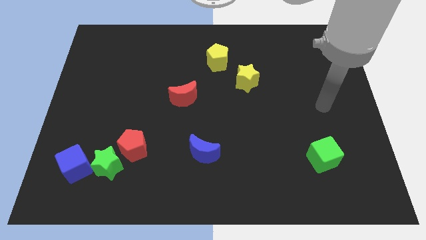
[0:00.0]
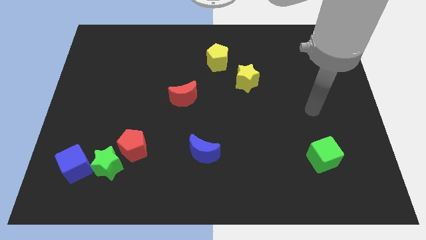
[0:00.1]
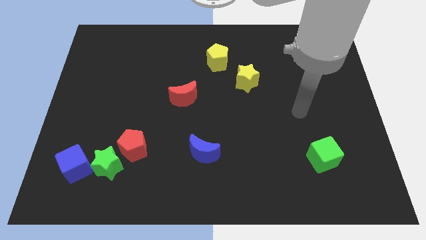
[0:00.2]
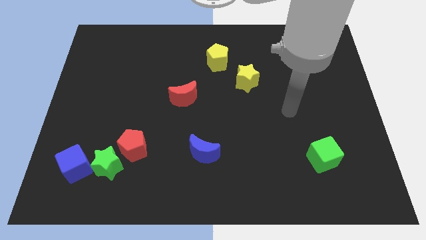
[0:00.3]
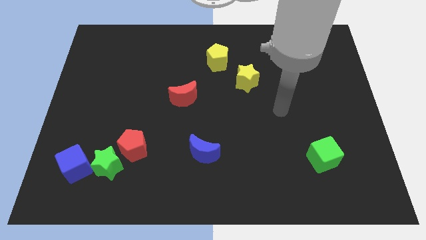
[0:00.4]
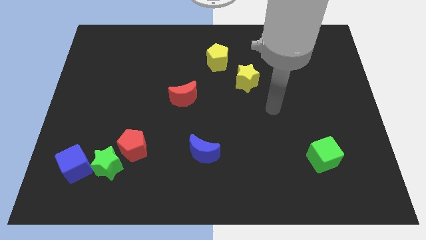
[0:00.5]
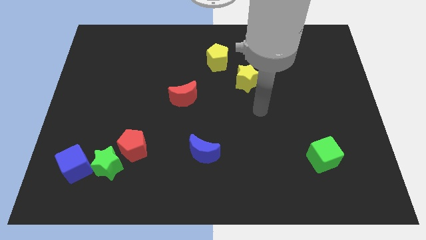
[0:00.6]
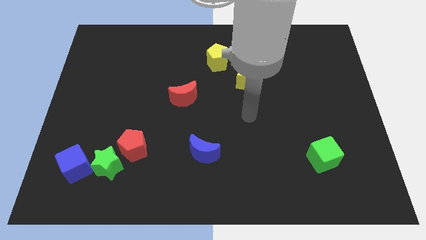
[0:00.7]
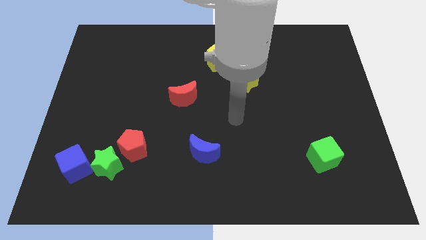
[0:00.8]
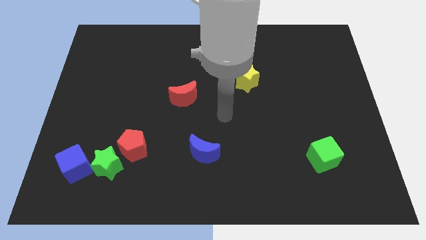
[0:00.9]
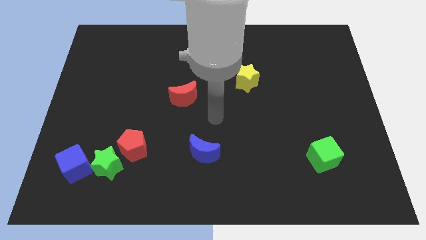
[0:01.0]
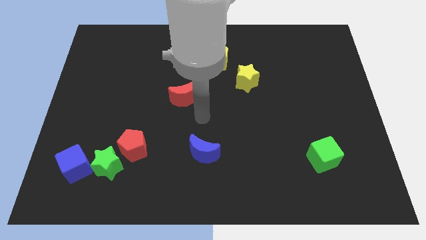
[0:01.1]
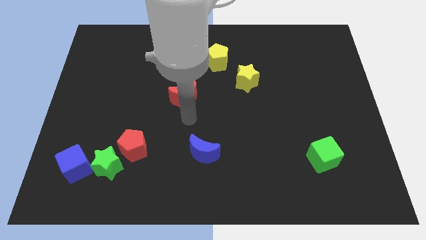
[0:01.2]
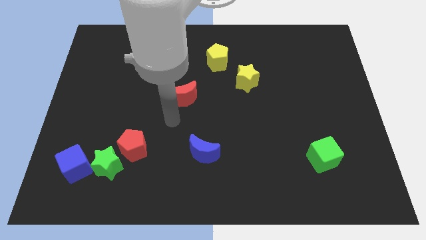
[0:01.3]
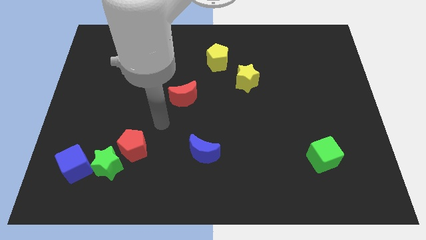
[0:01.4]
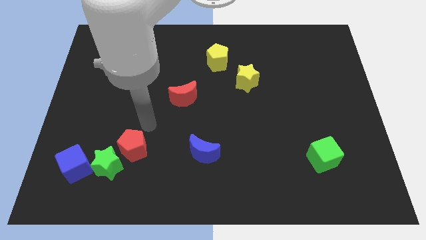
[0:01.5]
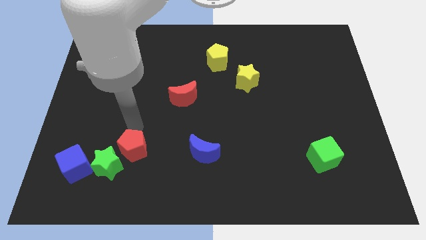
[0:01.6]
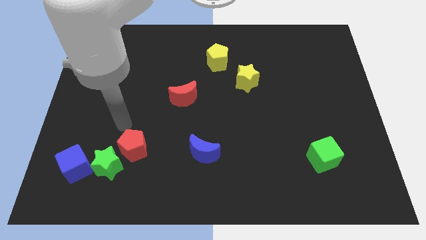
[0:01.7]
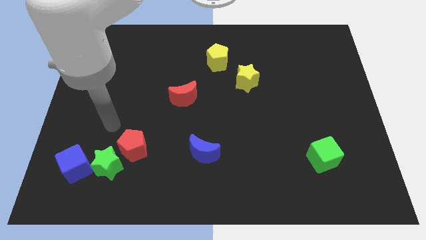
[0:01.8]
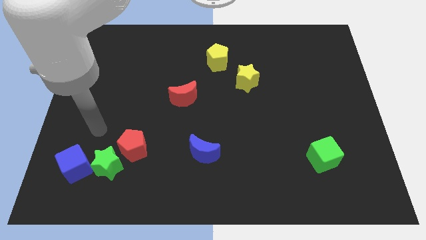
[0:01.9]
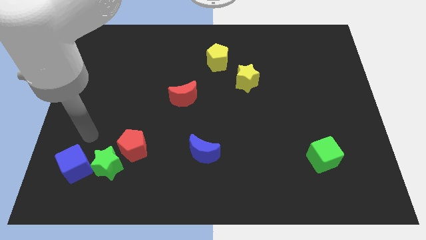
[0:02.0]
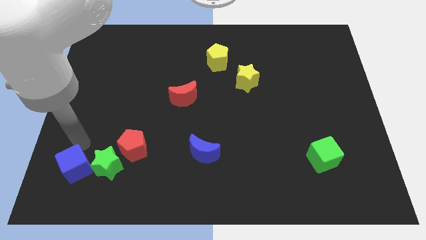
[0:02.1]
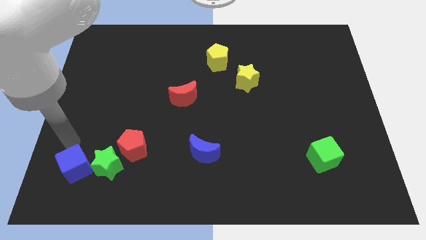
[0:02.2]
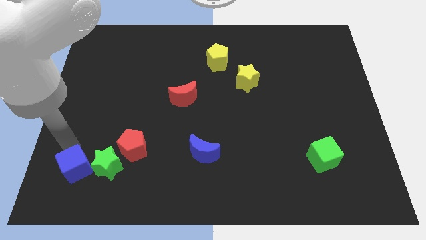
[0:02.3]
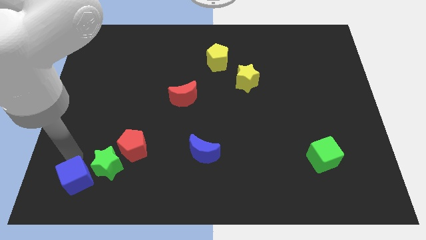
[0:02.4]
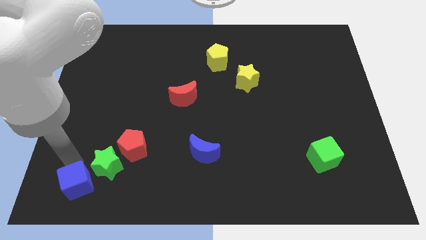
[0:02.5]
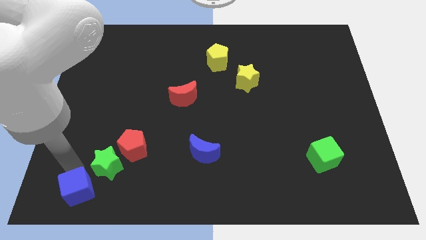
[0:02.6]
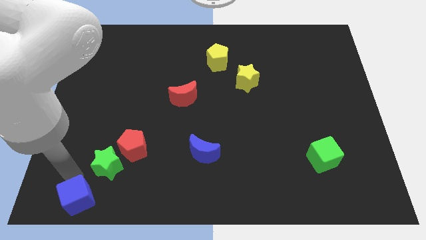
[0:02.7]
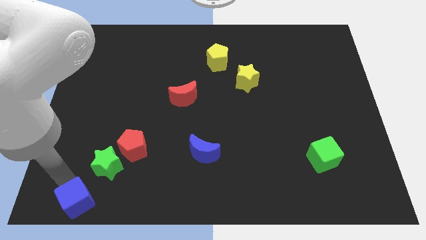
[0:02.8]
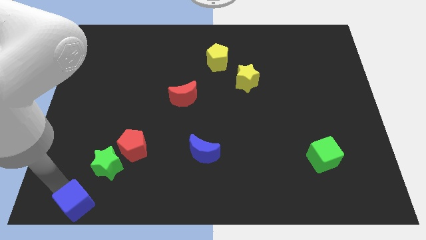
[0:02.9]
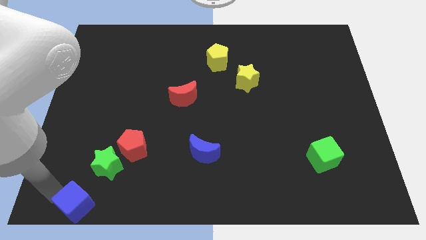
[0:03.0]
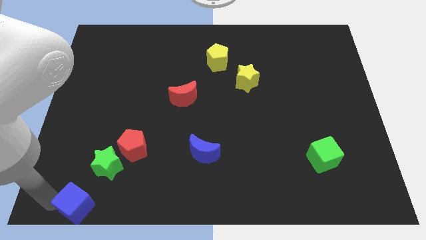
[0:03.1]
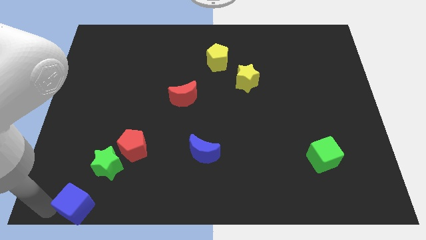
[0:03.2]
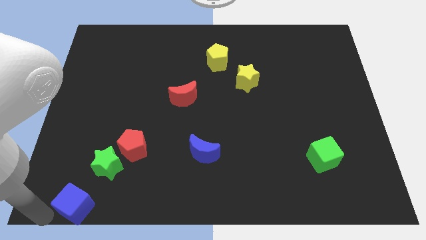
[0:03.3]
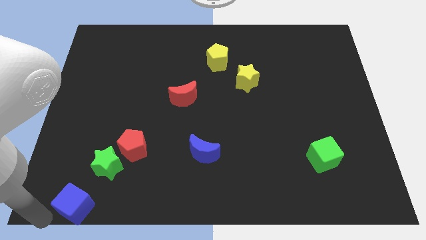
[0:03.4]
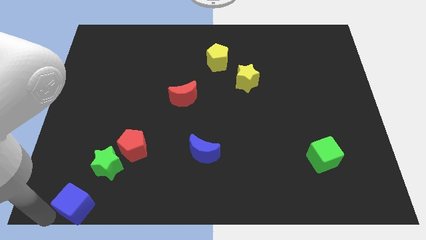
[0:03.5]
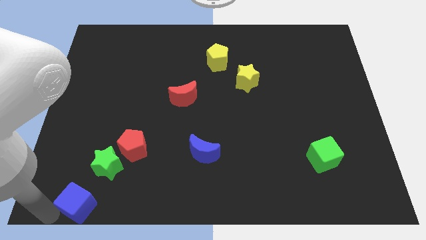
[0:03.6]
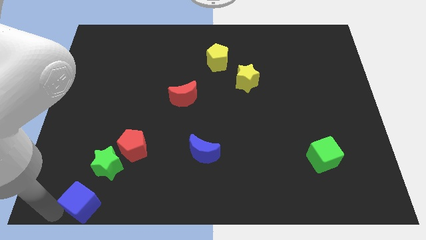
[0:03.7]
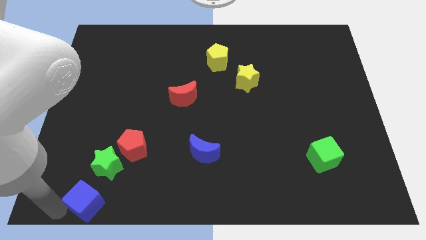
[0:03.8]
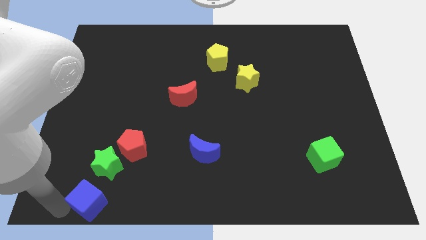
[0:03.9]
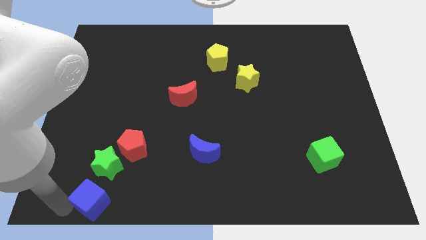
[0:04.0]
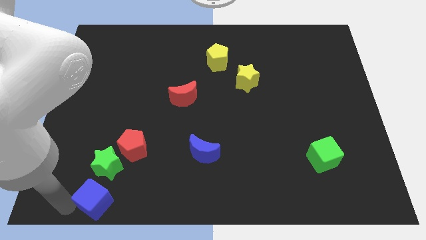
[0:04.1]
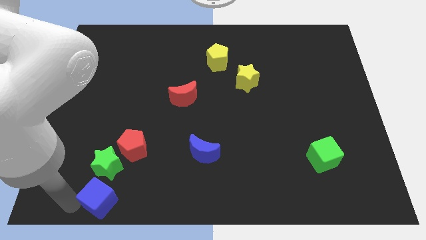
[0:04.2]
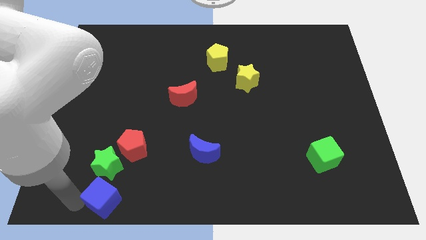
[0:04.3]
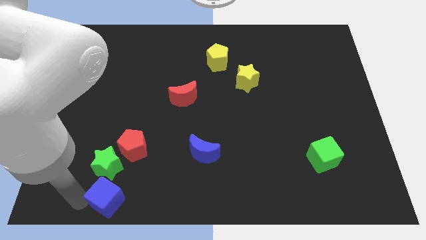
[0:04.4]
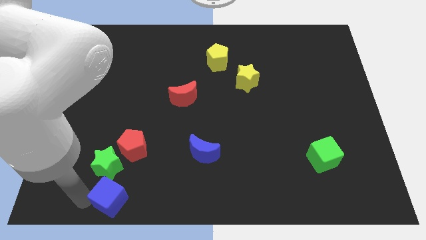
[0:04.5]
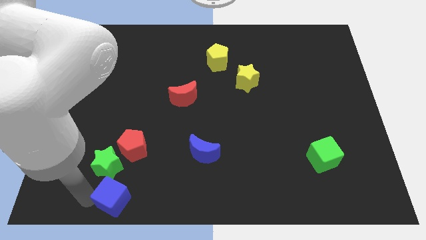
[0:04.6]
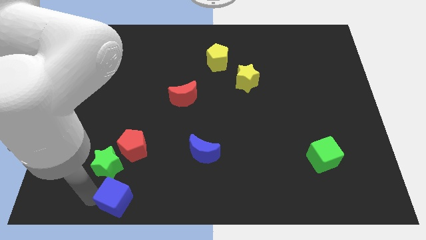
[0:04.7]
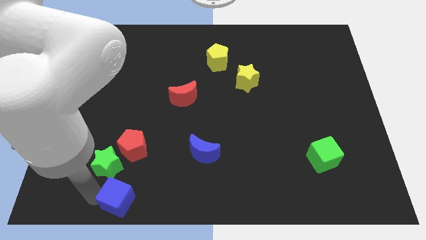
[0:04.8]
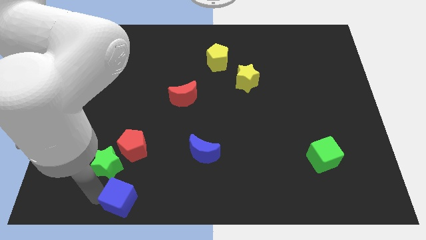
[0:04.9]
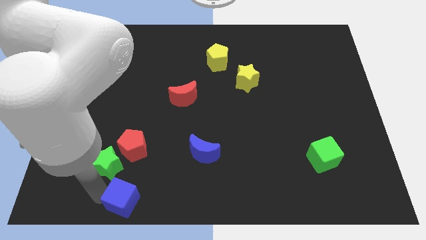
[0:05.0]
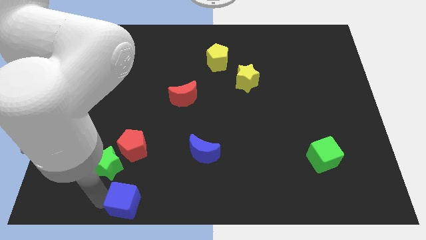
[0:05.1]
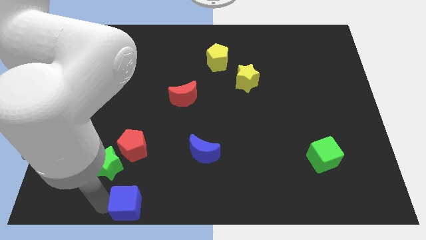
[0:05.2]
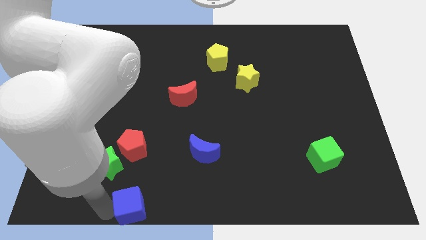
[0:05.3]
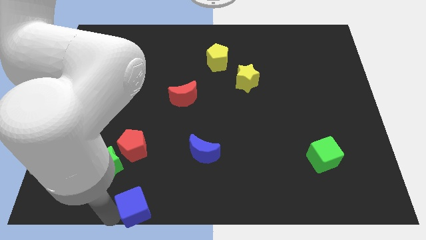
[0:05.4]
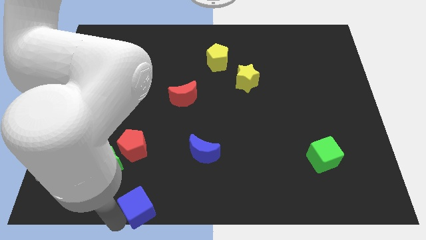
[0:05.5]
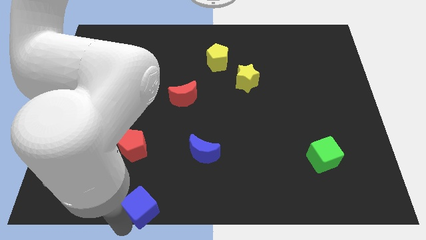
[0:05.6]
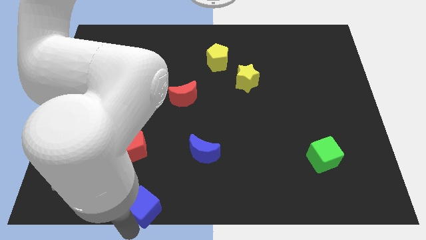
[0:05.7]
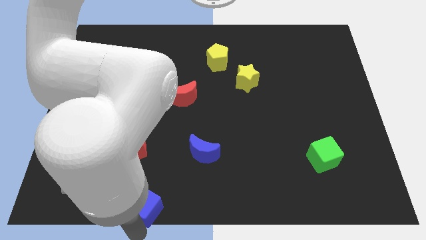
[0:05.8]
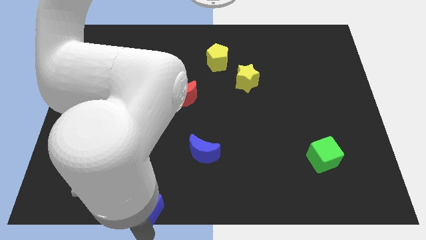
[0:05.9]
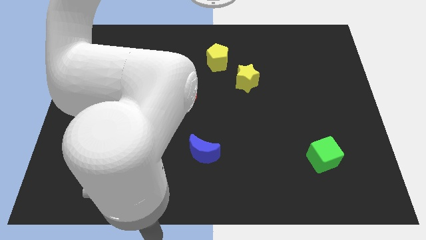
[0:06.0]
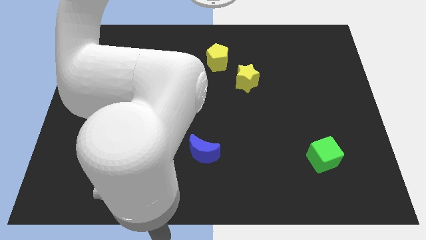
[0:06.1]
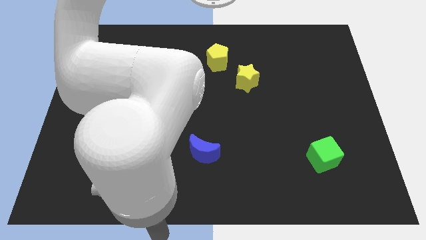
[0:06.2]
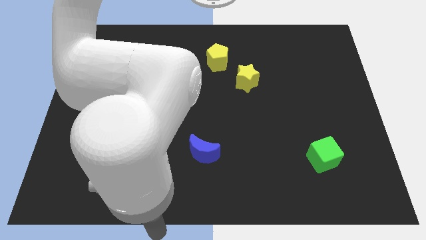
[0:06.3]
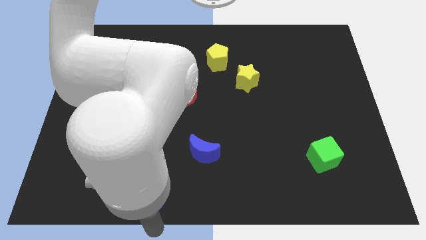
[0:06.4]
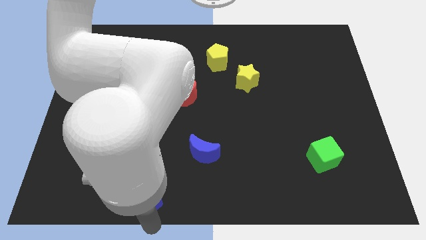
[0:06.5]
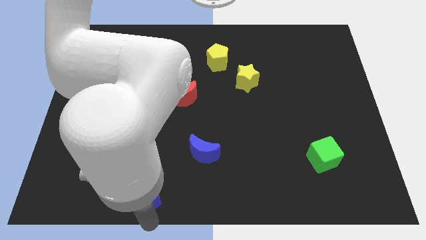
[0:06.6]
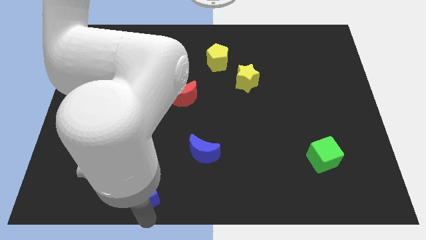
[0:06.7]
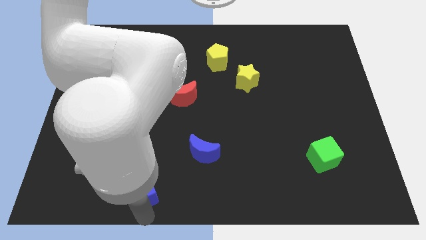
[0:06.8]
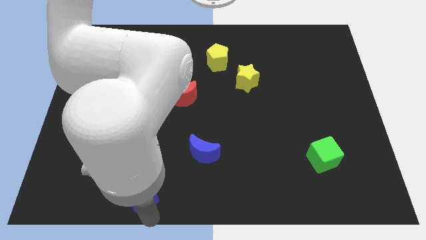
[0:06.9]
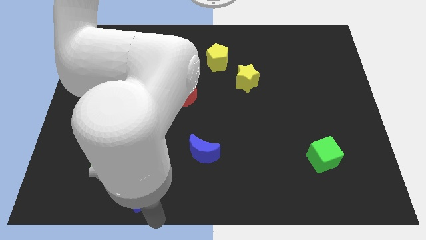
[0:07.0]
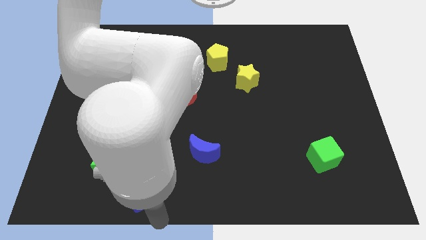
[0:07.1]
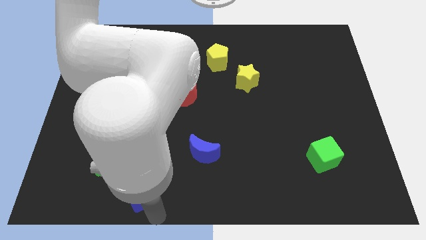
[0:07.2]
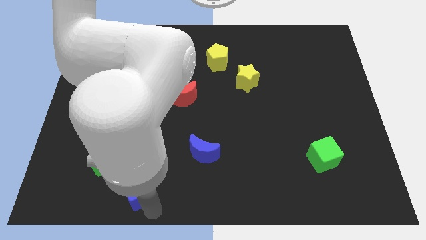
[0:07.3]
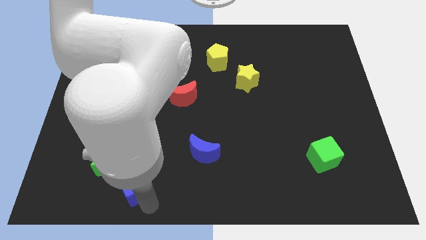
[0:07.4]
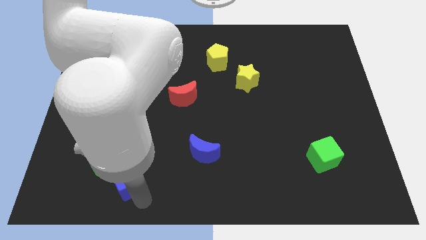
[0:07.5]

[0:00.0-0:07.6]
put the blue cube to the right of the green star
